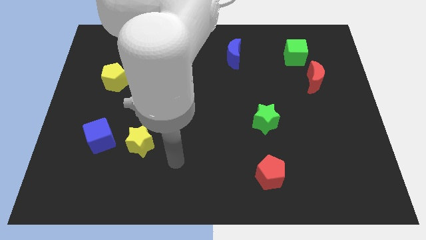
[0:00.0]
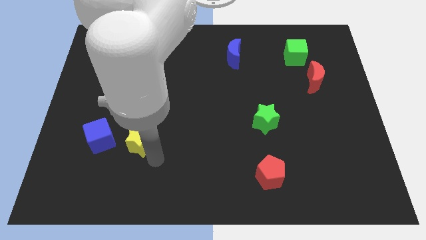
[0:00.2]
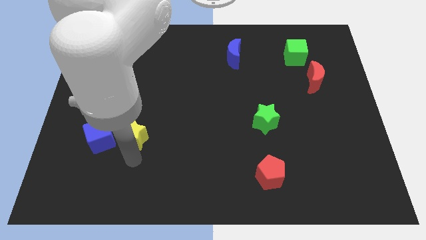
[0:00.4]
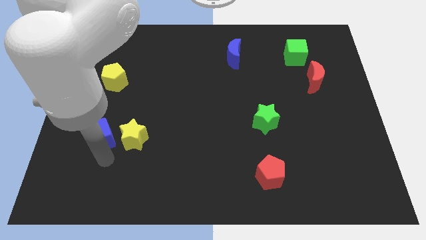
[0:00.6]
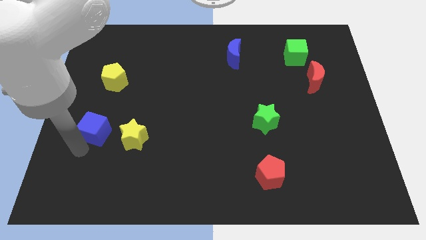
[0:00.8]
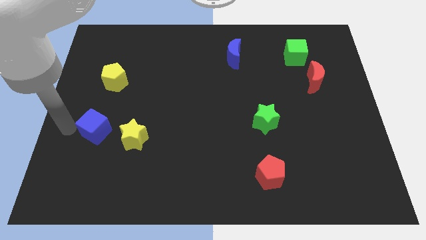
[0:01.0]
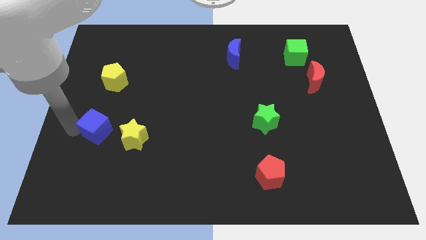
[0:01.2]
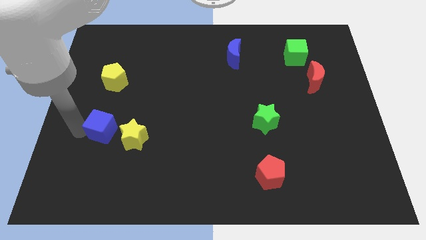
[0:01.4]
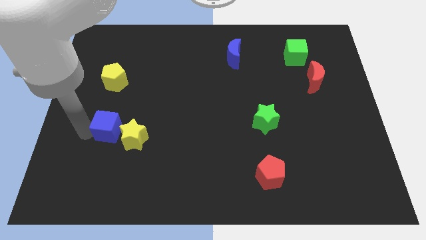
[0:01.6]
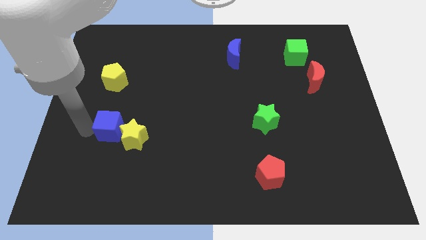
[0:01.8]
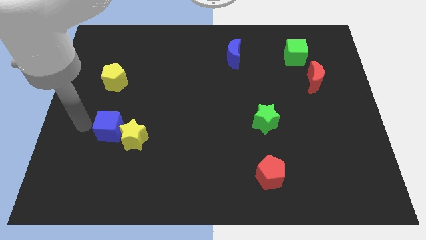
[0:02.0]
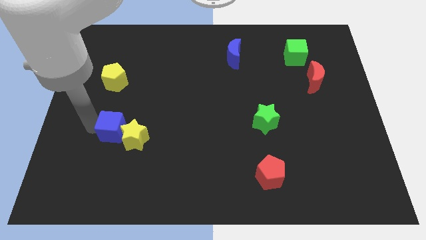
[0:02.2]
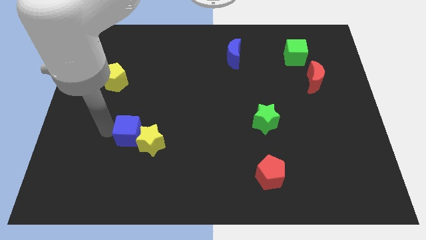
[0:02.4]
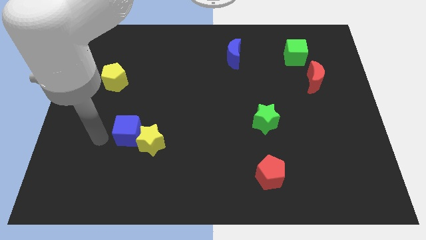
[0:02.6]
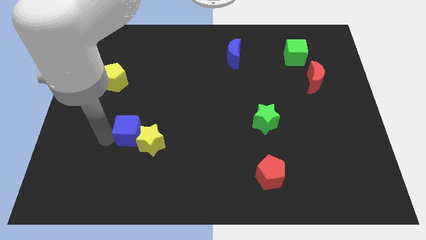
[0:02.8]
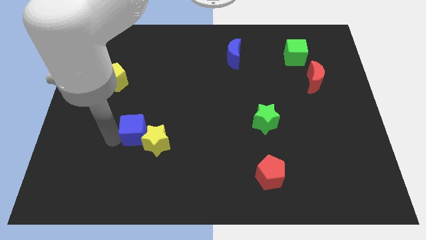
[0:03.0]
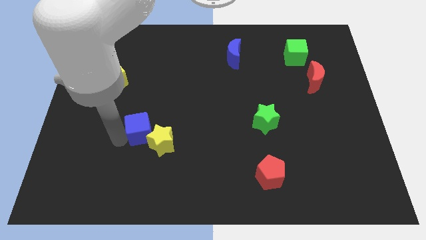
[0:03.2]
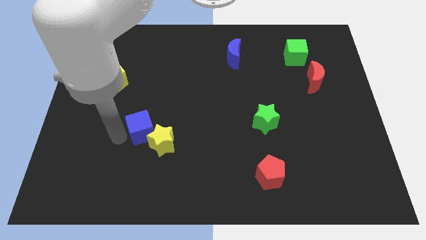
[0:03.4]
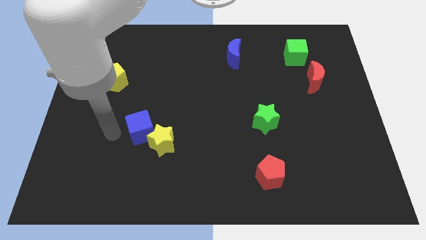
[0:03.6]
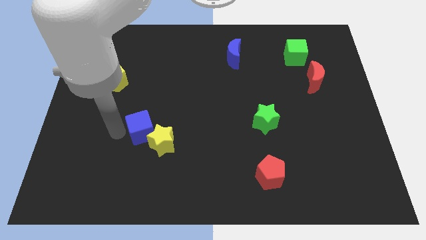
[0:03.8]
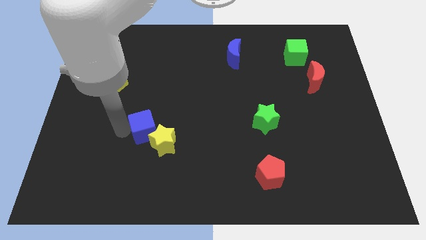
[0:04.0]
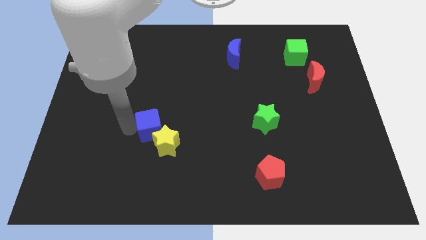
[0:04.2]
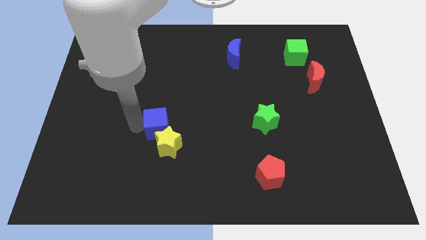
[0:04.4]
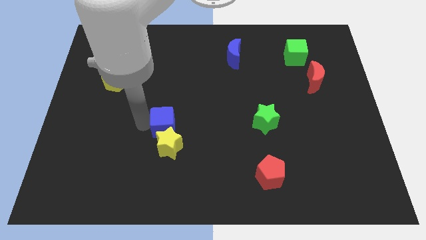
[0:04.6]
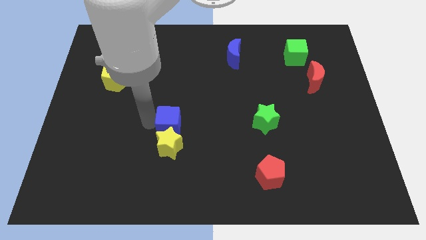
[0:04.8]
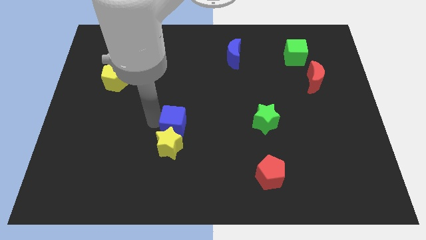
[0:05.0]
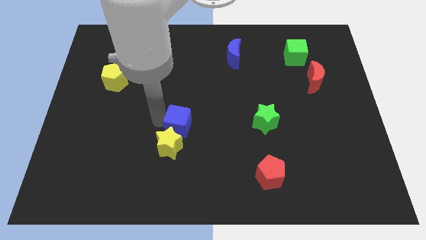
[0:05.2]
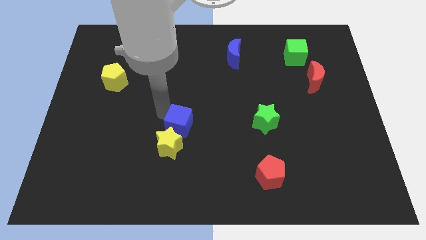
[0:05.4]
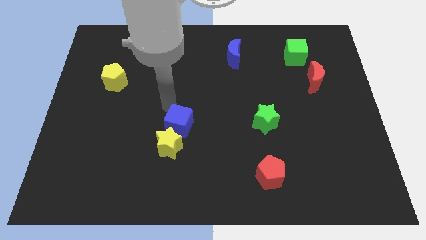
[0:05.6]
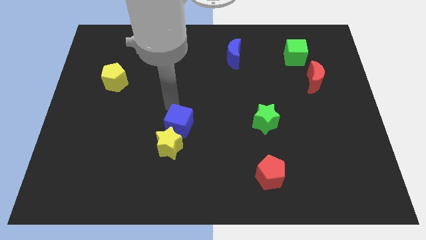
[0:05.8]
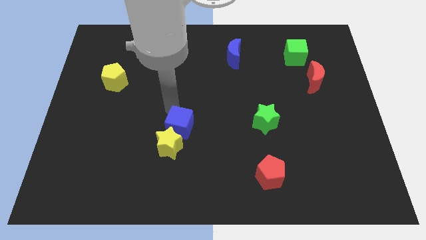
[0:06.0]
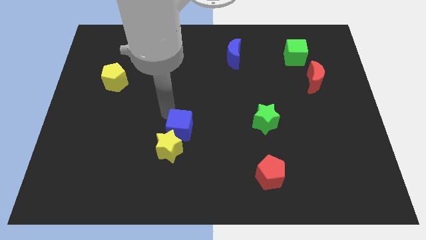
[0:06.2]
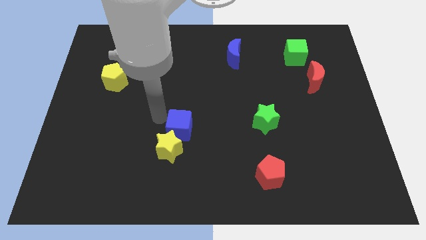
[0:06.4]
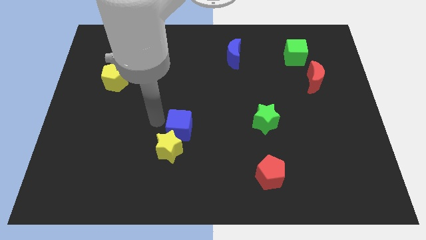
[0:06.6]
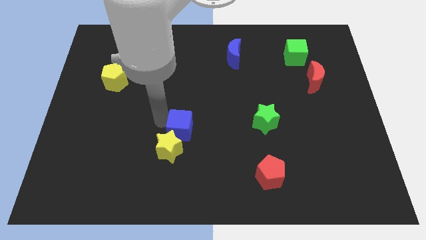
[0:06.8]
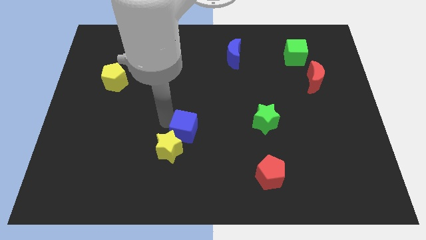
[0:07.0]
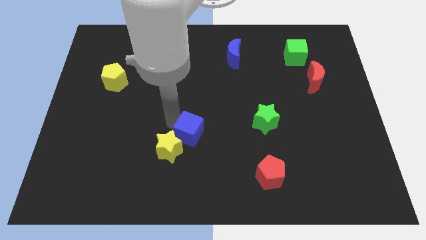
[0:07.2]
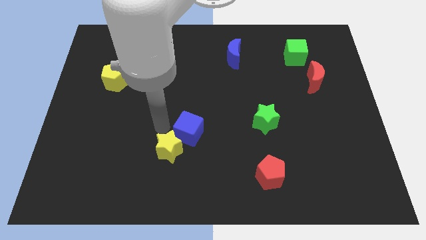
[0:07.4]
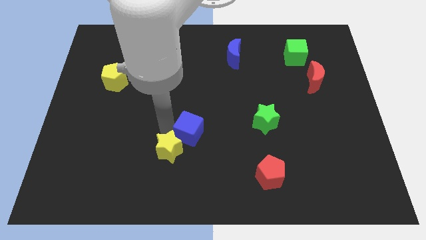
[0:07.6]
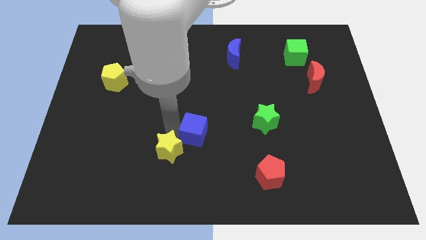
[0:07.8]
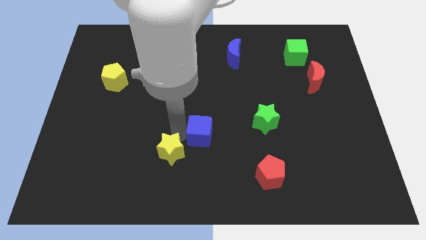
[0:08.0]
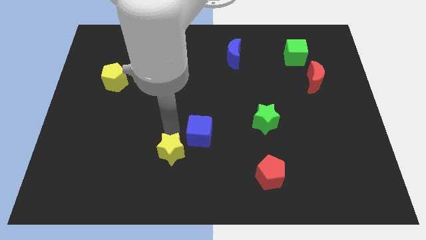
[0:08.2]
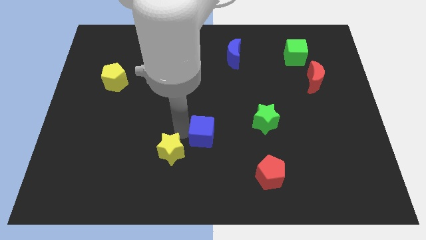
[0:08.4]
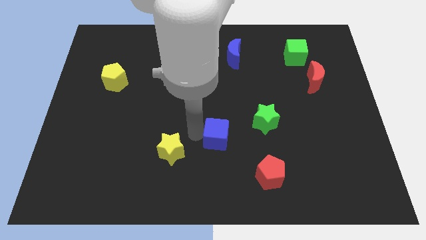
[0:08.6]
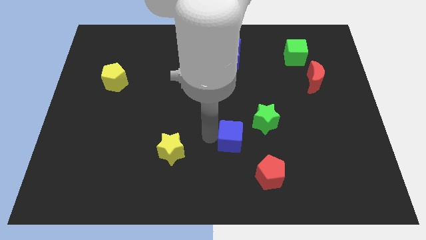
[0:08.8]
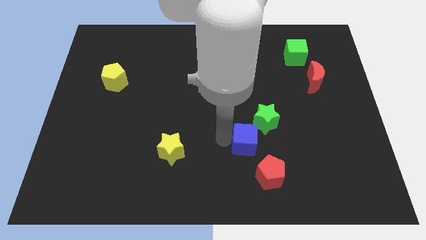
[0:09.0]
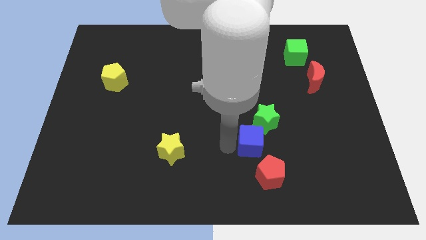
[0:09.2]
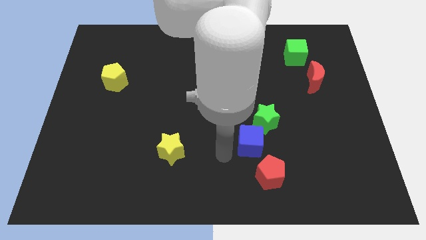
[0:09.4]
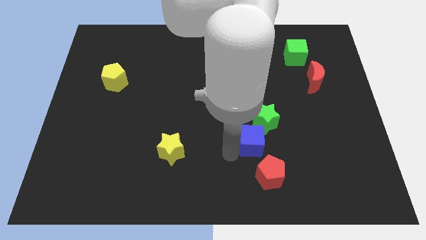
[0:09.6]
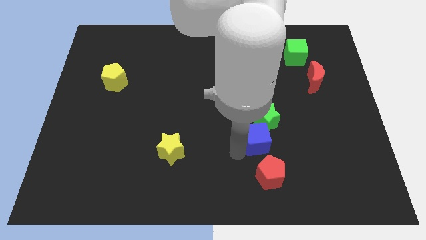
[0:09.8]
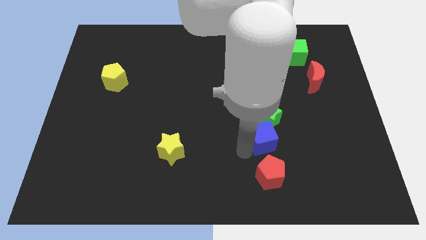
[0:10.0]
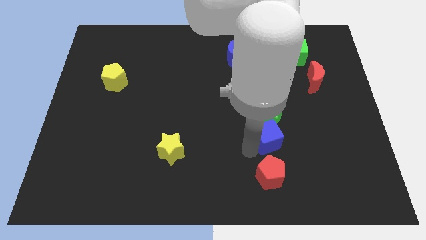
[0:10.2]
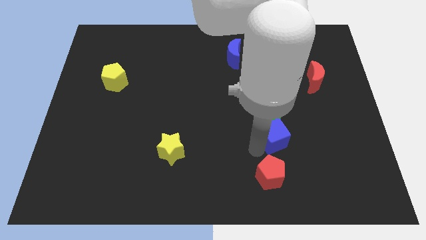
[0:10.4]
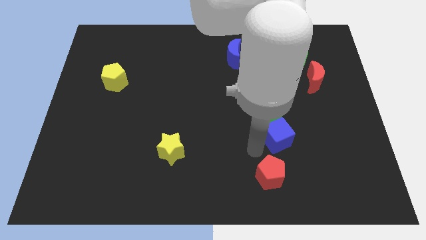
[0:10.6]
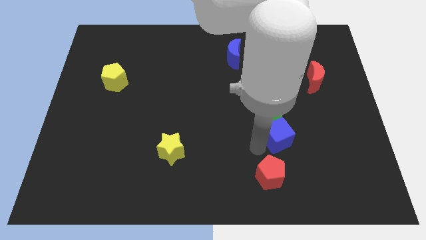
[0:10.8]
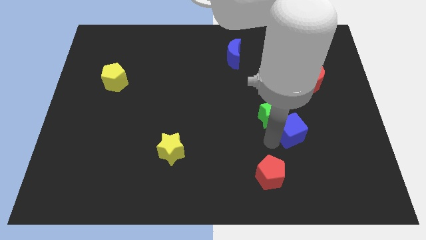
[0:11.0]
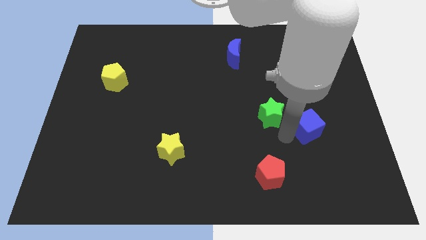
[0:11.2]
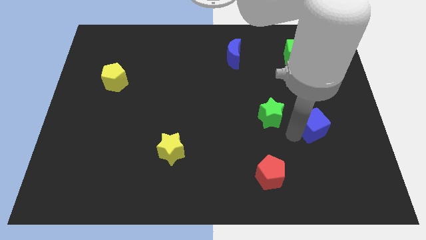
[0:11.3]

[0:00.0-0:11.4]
move the blue cube below the red moon

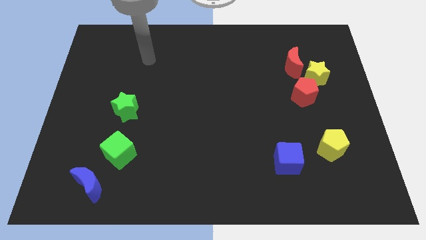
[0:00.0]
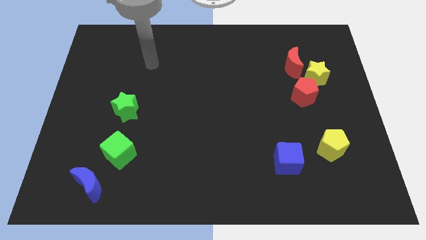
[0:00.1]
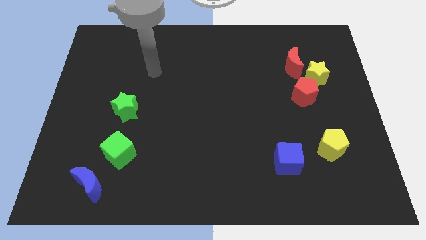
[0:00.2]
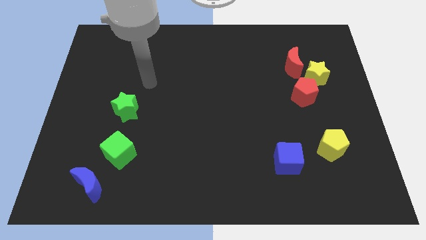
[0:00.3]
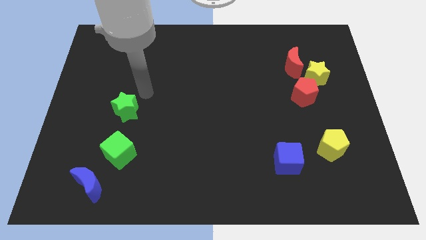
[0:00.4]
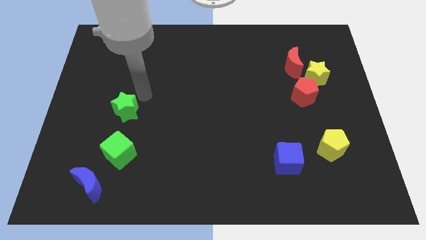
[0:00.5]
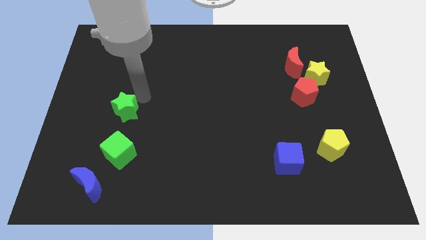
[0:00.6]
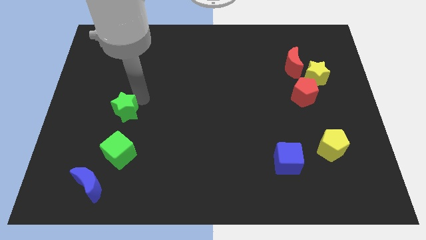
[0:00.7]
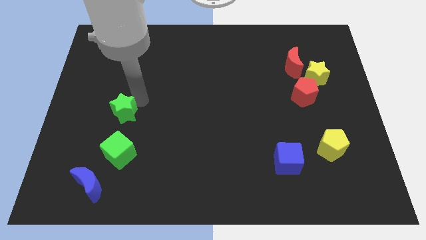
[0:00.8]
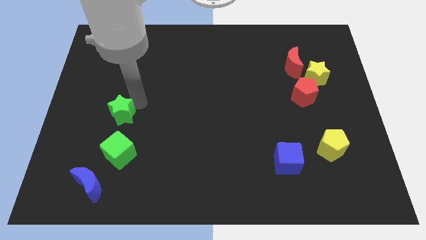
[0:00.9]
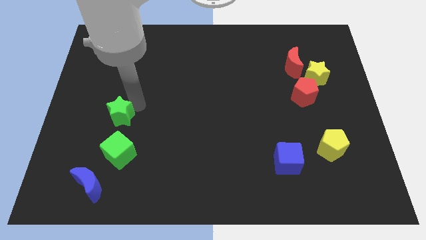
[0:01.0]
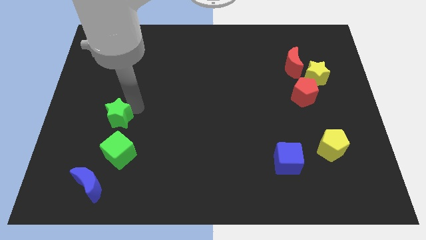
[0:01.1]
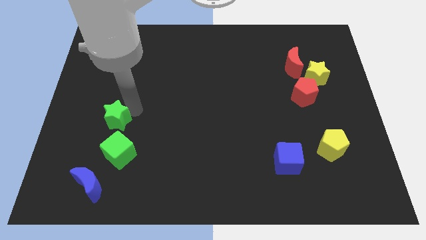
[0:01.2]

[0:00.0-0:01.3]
slide the green star to the top left side of the green cube
